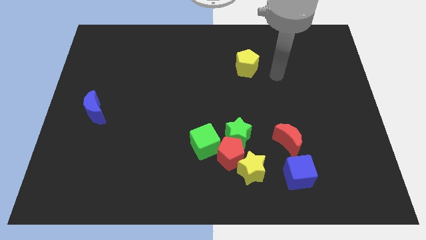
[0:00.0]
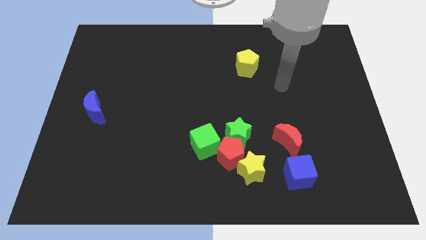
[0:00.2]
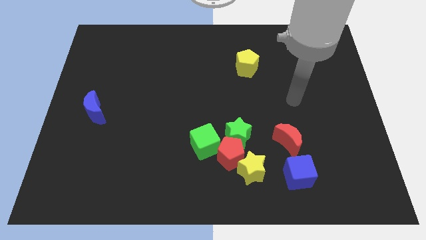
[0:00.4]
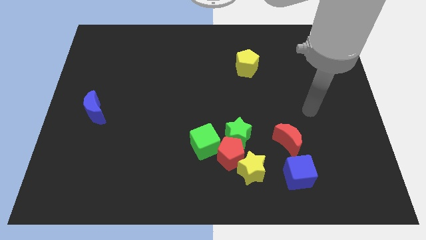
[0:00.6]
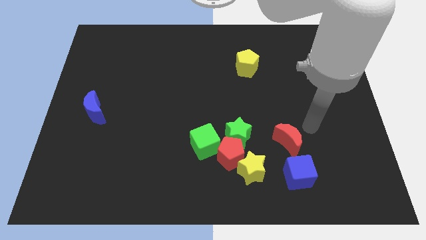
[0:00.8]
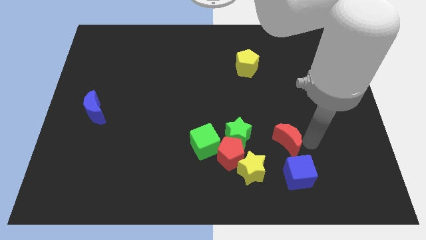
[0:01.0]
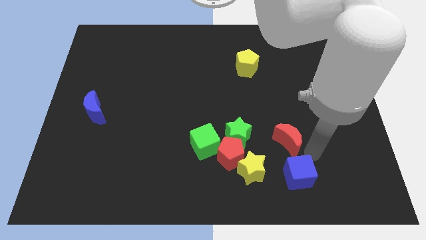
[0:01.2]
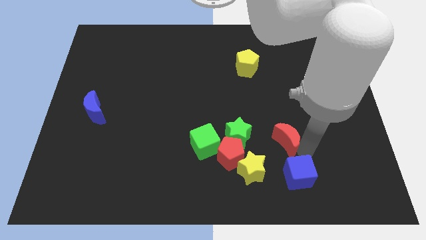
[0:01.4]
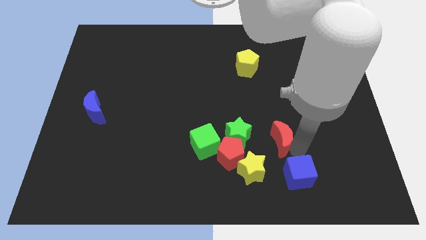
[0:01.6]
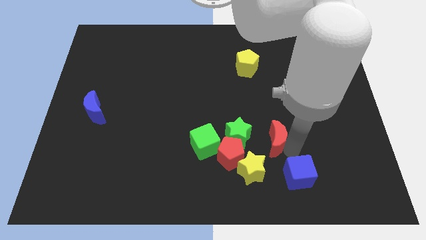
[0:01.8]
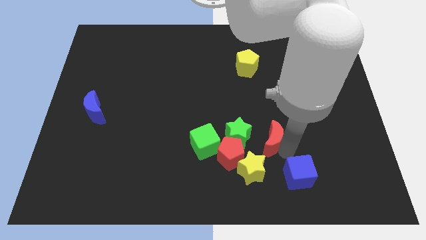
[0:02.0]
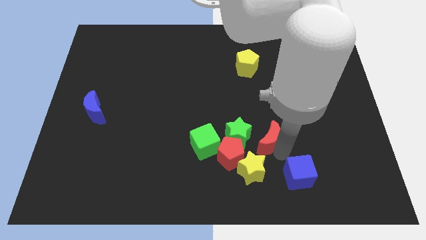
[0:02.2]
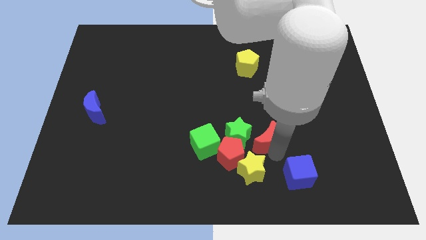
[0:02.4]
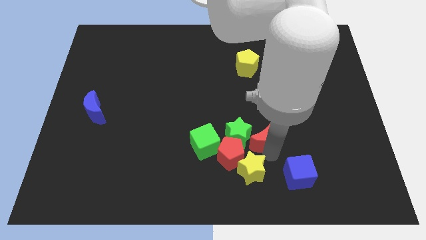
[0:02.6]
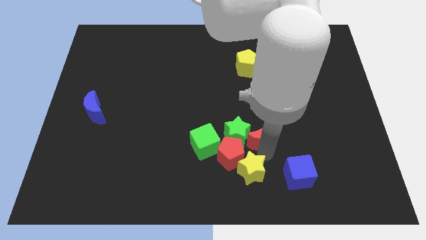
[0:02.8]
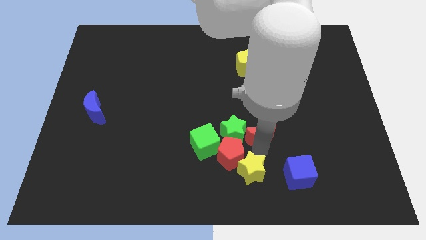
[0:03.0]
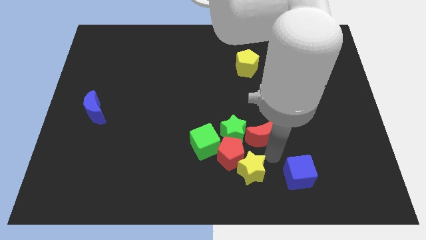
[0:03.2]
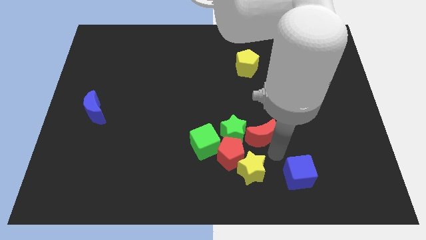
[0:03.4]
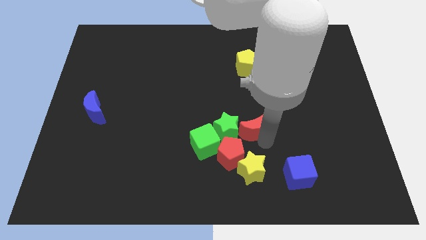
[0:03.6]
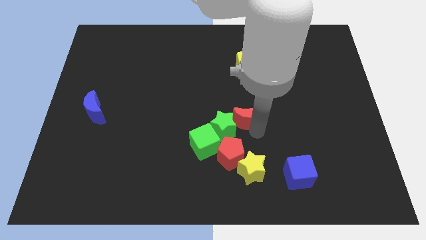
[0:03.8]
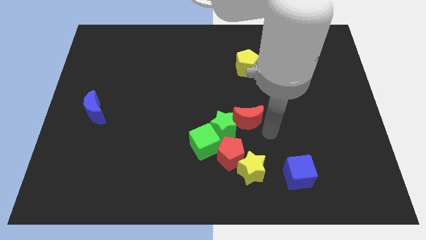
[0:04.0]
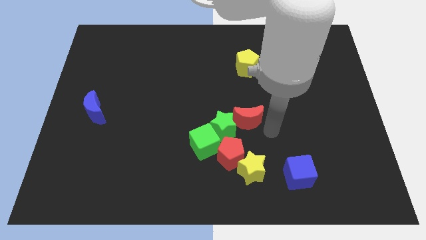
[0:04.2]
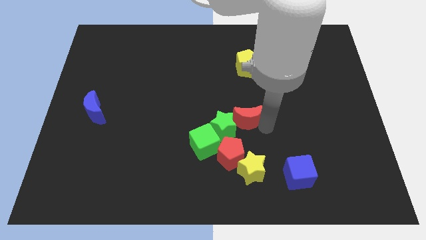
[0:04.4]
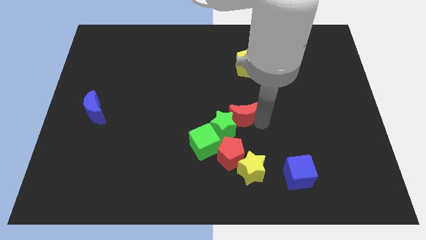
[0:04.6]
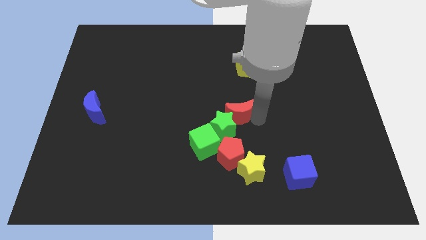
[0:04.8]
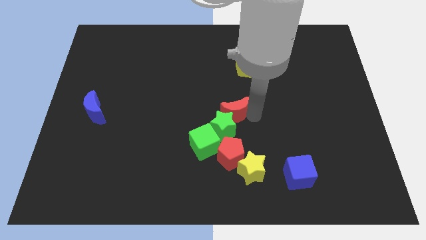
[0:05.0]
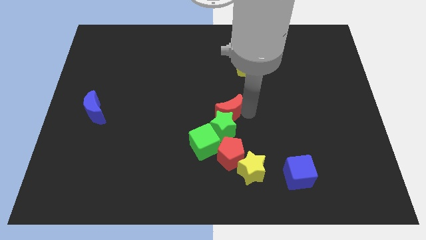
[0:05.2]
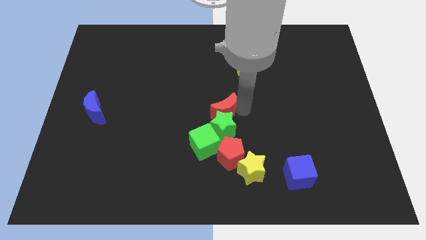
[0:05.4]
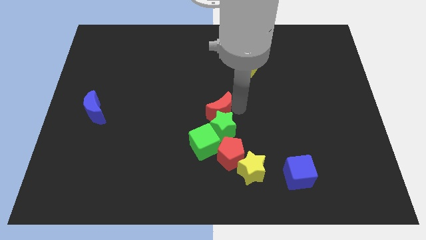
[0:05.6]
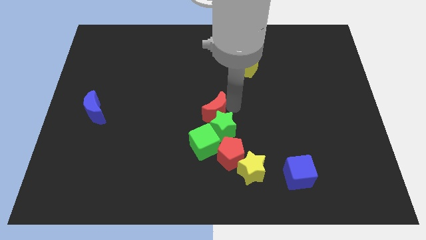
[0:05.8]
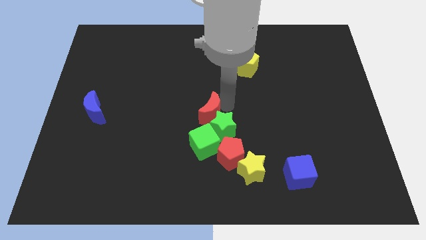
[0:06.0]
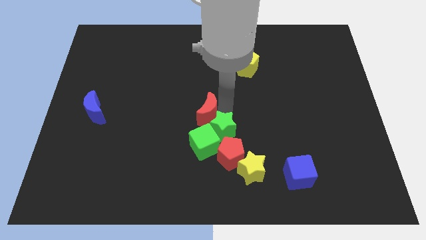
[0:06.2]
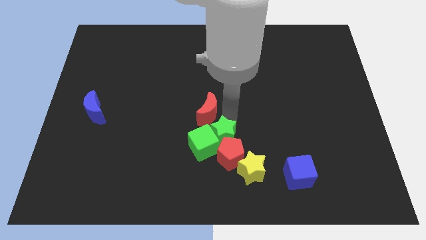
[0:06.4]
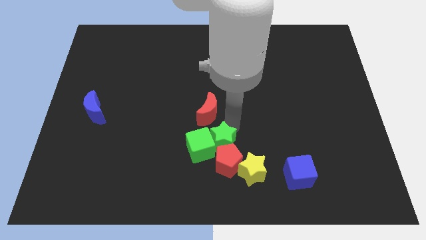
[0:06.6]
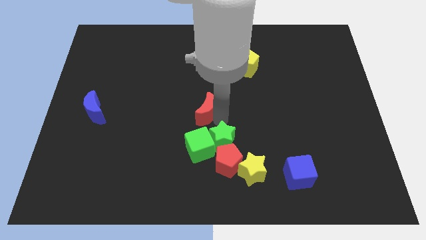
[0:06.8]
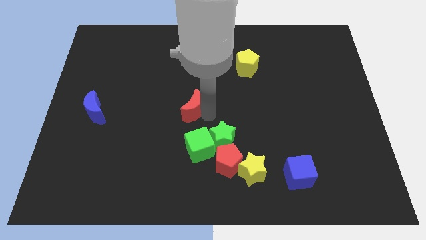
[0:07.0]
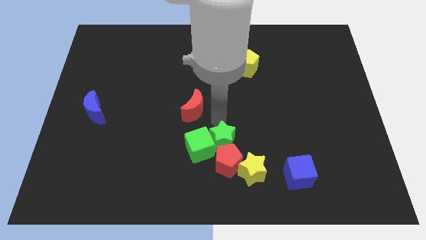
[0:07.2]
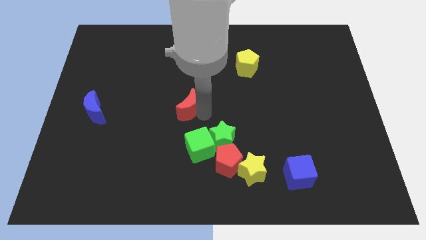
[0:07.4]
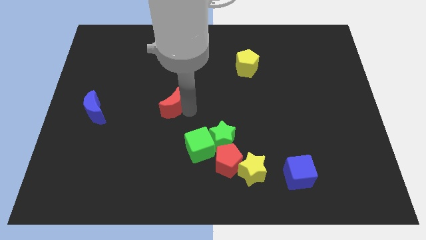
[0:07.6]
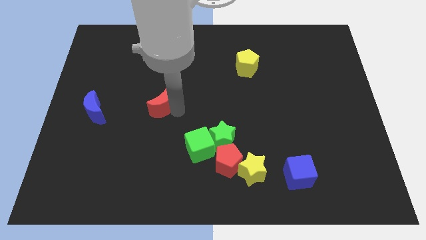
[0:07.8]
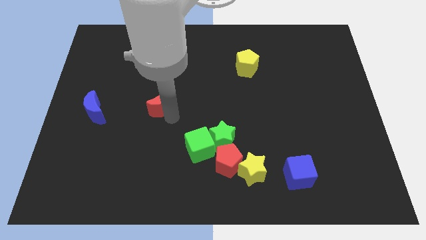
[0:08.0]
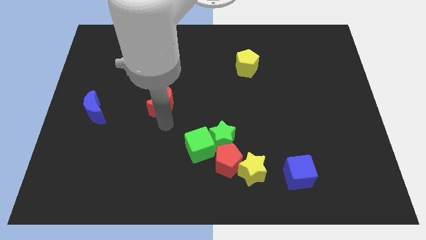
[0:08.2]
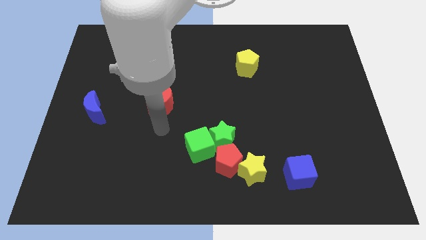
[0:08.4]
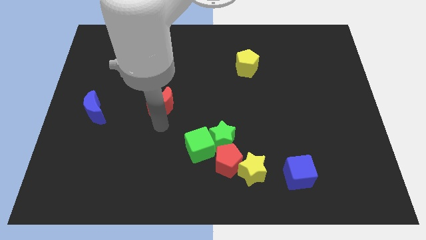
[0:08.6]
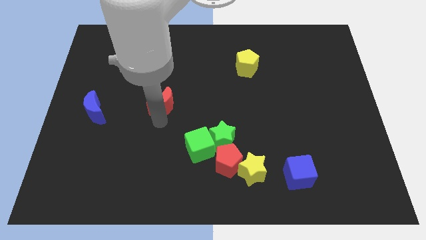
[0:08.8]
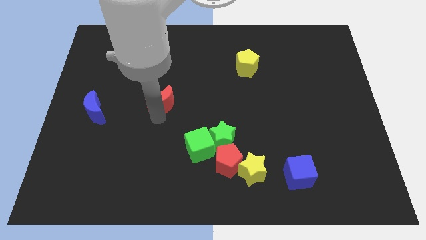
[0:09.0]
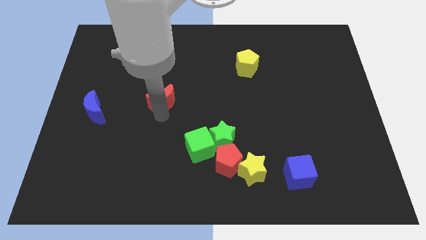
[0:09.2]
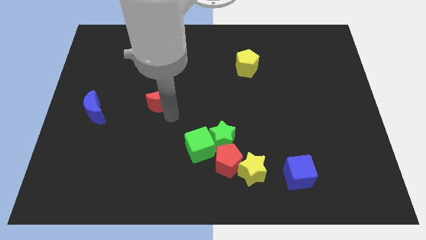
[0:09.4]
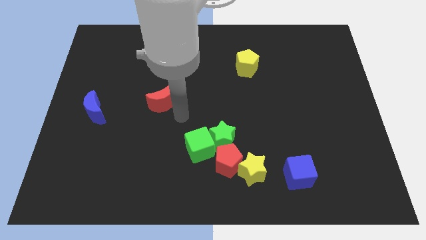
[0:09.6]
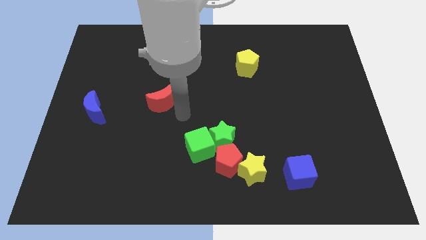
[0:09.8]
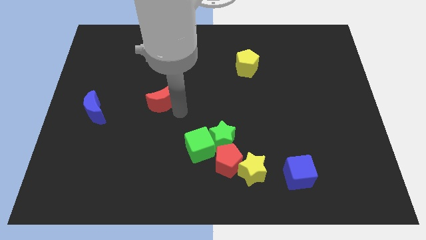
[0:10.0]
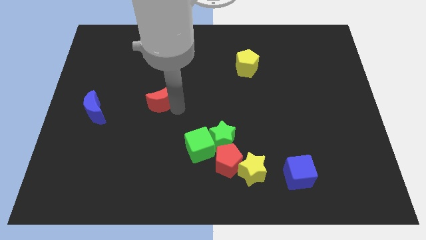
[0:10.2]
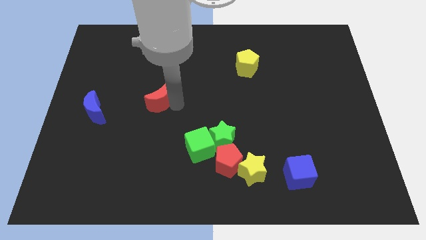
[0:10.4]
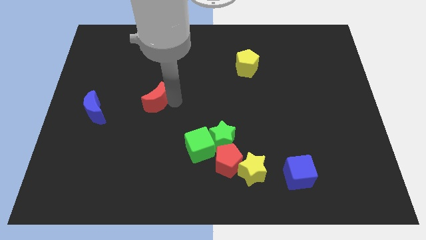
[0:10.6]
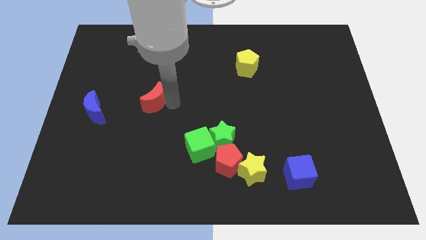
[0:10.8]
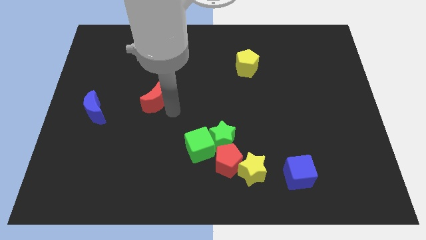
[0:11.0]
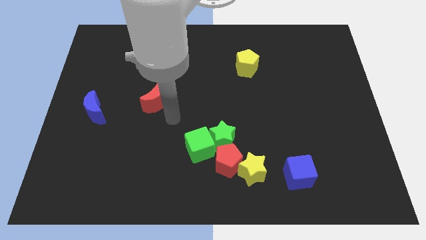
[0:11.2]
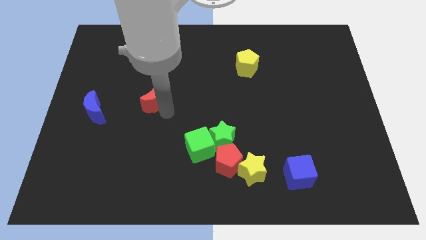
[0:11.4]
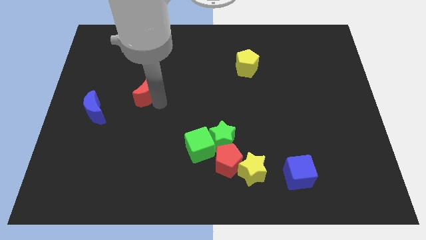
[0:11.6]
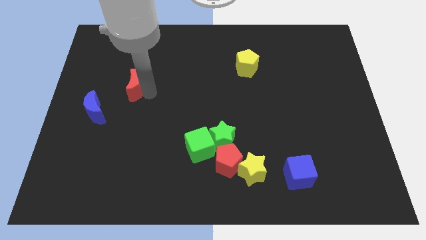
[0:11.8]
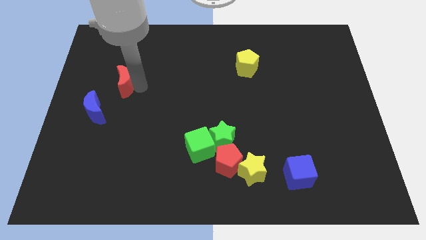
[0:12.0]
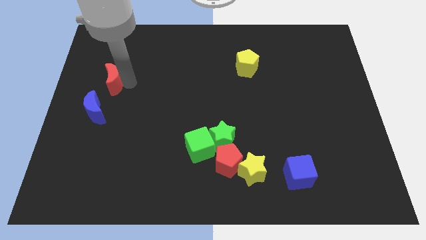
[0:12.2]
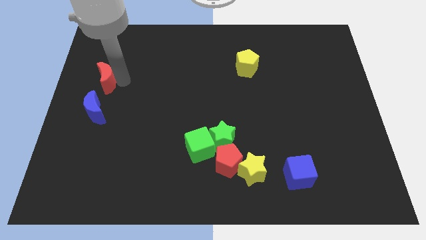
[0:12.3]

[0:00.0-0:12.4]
move the red moon to the left side
